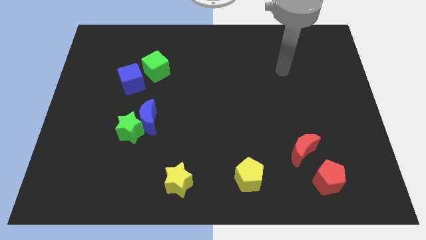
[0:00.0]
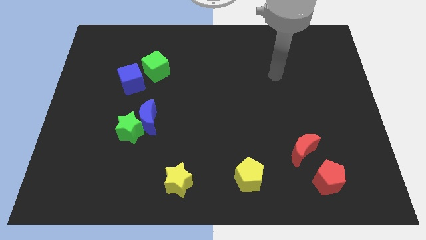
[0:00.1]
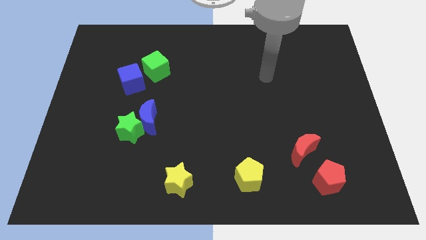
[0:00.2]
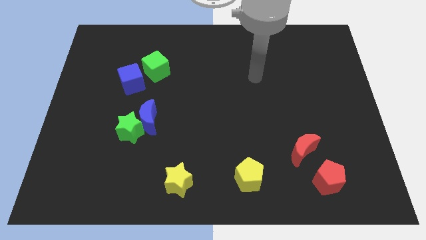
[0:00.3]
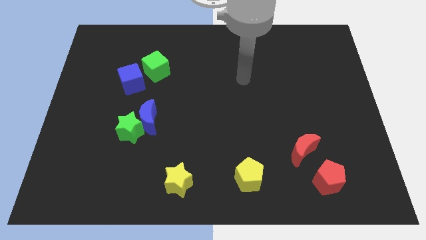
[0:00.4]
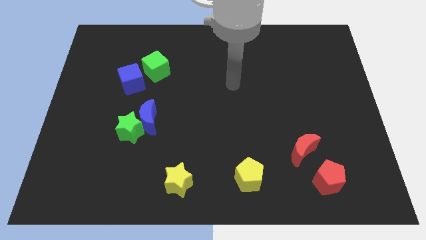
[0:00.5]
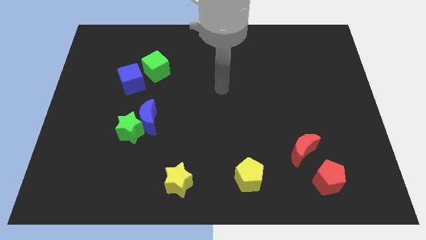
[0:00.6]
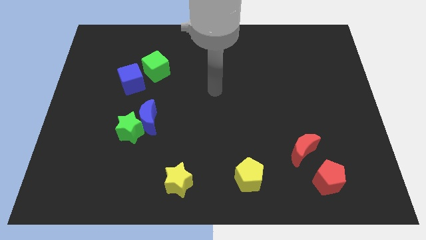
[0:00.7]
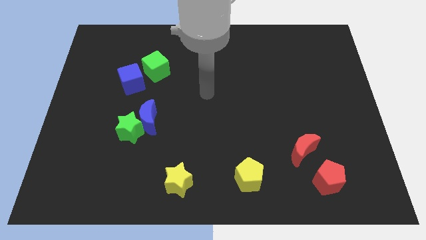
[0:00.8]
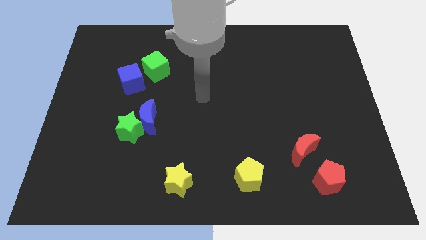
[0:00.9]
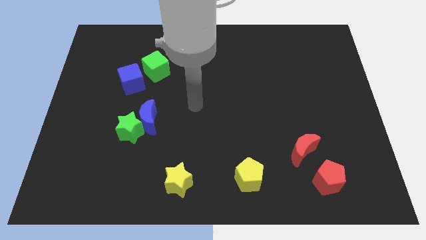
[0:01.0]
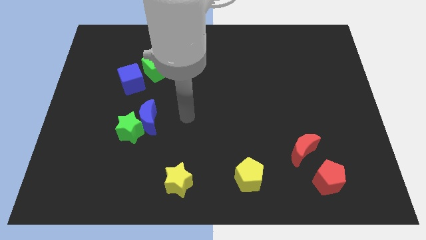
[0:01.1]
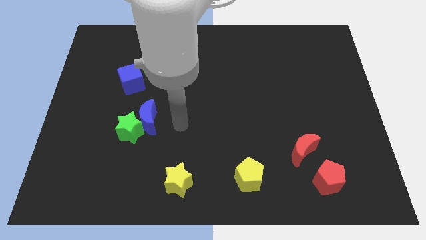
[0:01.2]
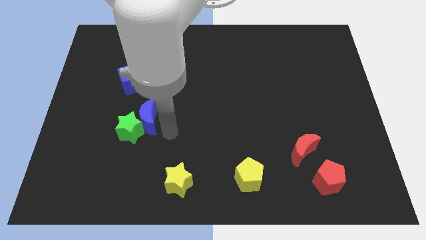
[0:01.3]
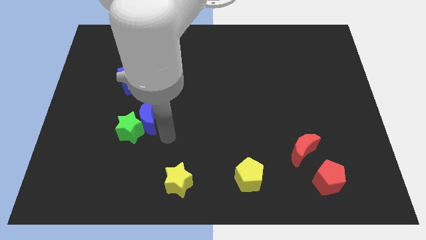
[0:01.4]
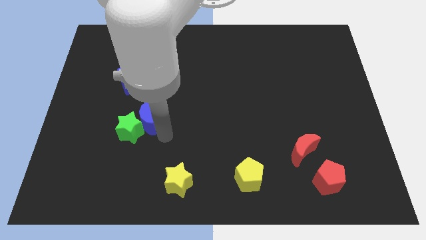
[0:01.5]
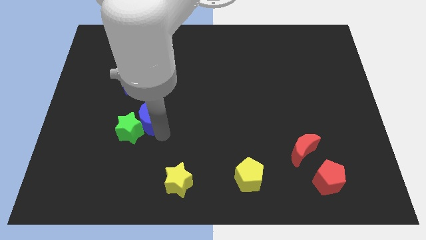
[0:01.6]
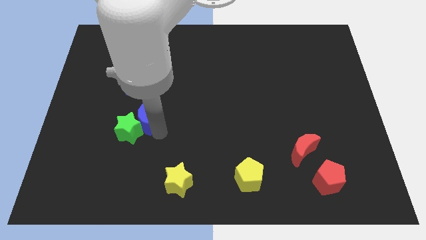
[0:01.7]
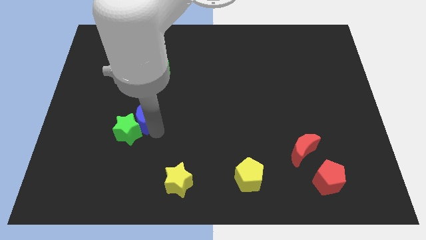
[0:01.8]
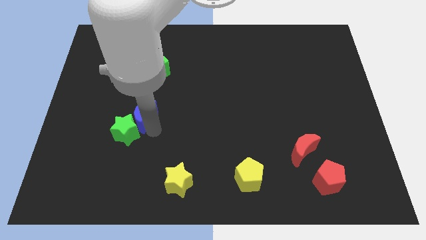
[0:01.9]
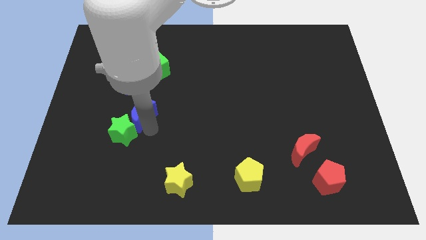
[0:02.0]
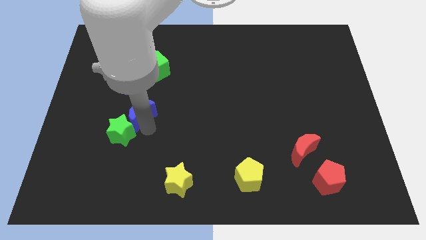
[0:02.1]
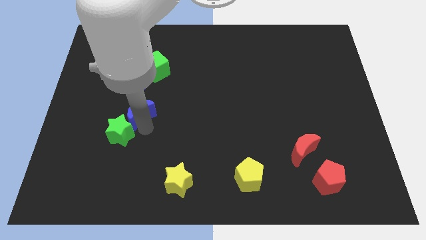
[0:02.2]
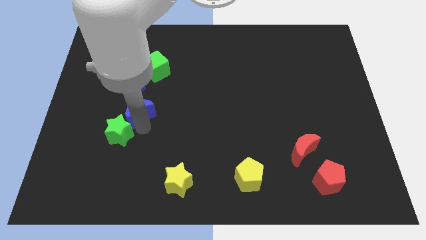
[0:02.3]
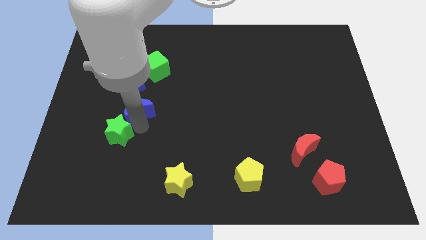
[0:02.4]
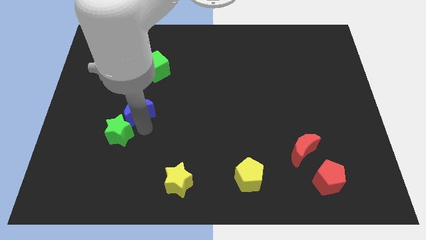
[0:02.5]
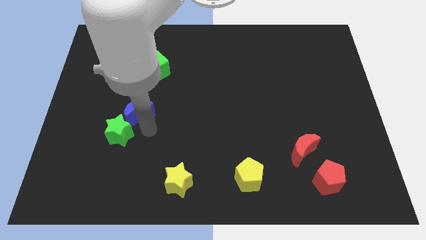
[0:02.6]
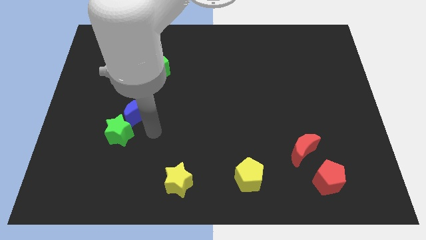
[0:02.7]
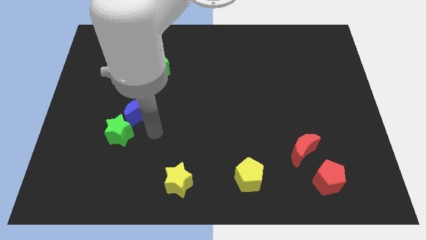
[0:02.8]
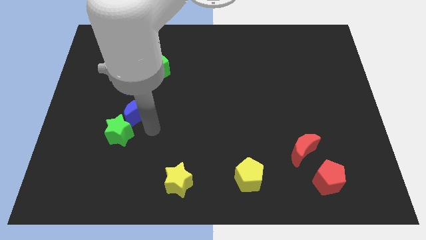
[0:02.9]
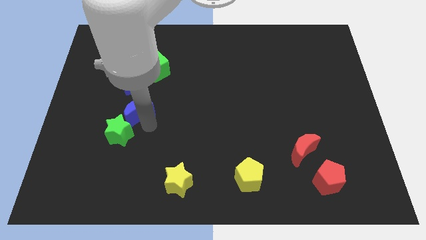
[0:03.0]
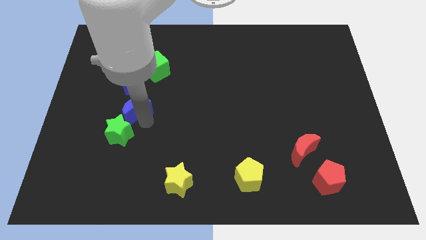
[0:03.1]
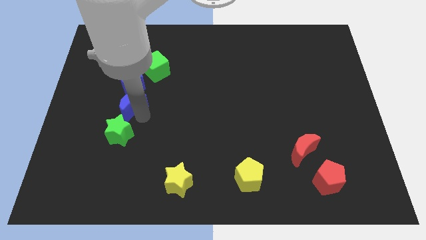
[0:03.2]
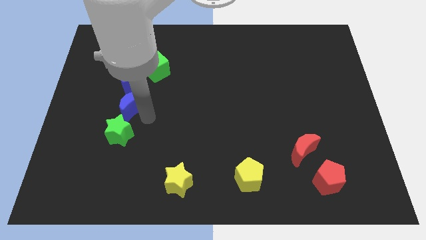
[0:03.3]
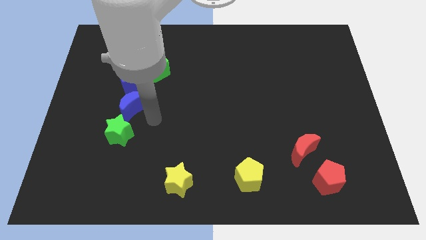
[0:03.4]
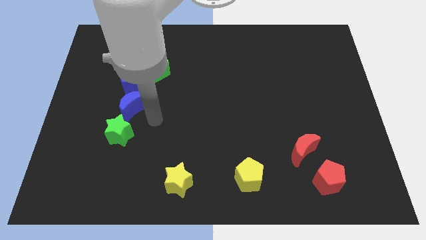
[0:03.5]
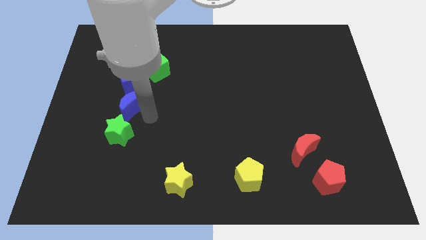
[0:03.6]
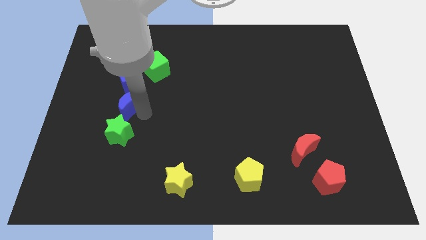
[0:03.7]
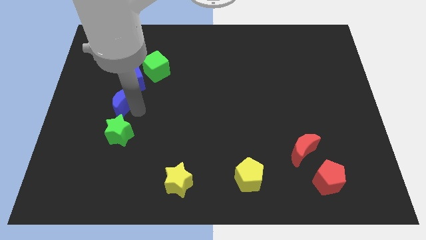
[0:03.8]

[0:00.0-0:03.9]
push the blue moon somewhat up and to the left diagonally

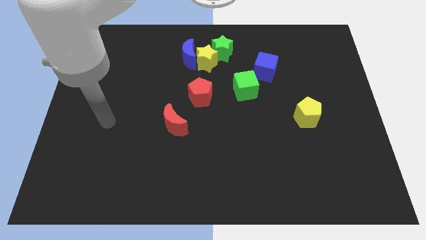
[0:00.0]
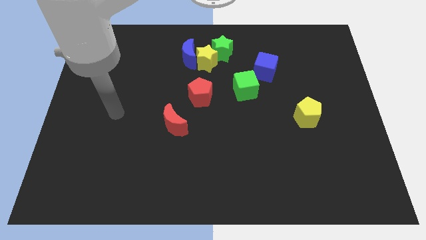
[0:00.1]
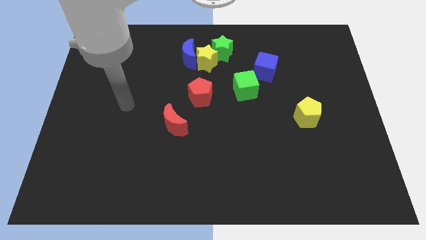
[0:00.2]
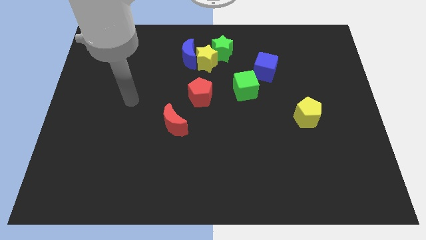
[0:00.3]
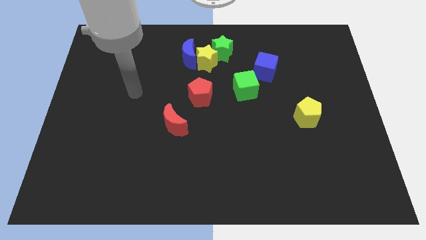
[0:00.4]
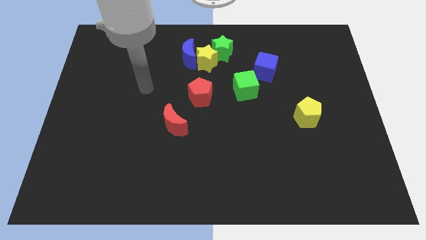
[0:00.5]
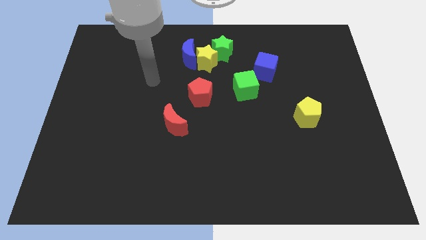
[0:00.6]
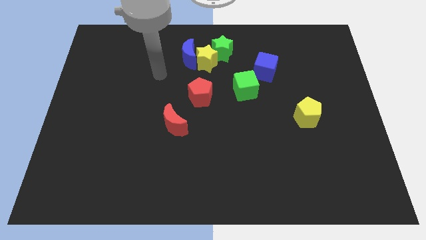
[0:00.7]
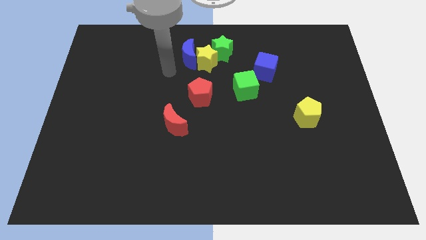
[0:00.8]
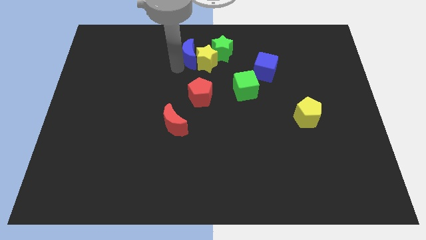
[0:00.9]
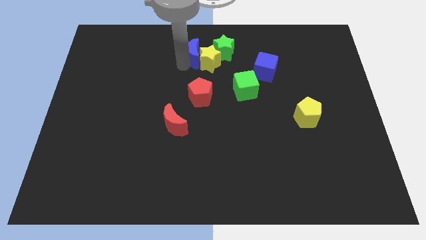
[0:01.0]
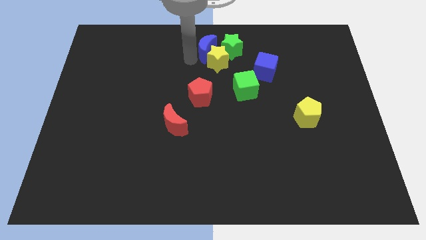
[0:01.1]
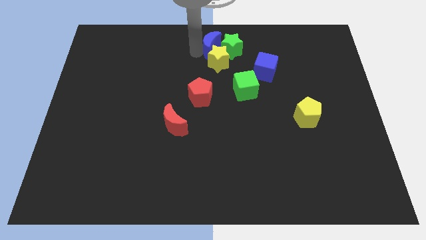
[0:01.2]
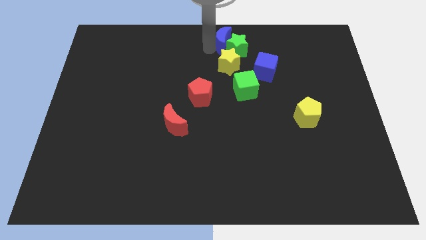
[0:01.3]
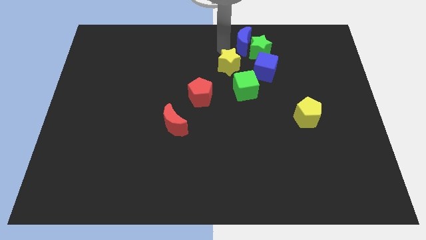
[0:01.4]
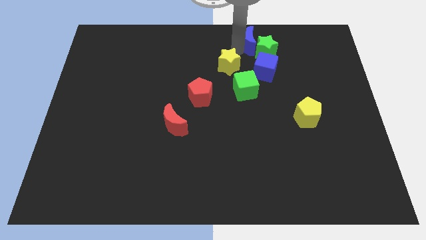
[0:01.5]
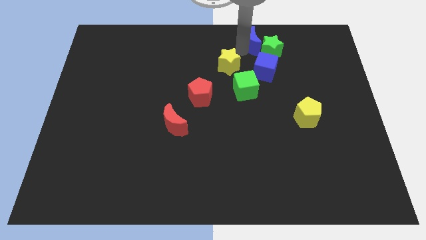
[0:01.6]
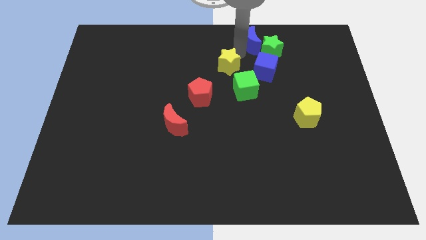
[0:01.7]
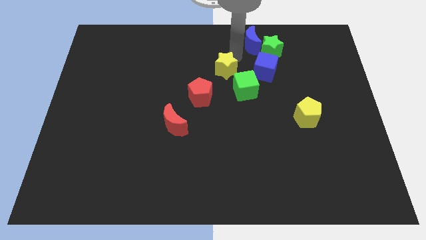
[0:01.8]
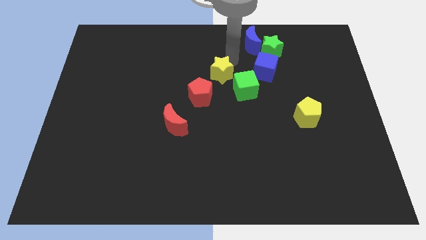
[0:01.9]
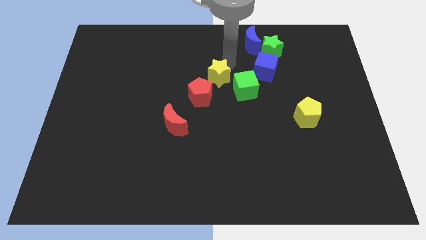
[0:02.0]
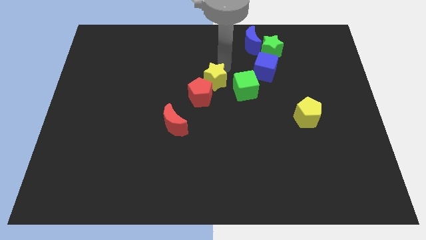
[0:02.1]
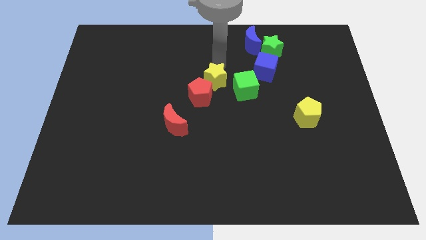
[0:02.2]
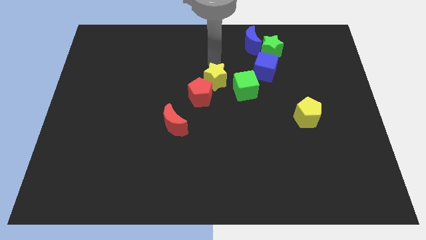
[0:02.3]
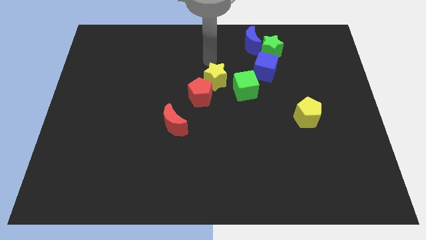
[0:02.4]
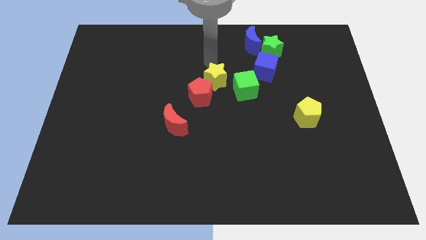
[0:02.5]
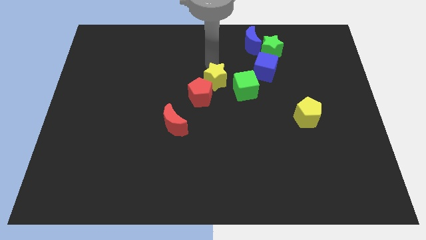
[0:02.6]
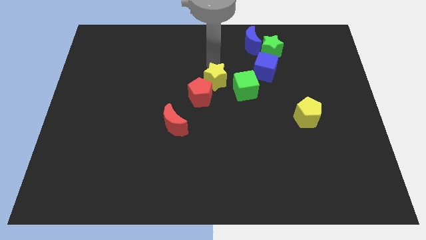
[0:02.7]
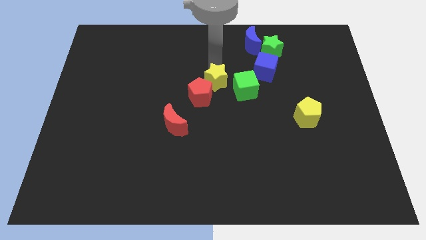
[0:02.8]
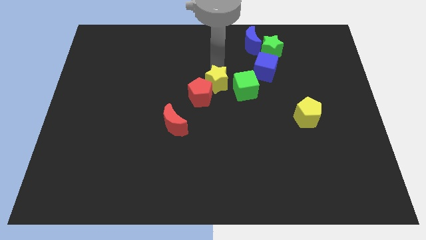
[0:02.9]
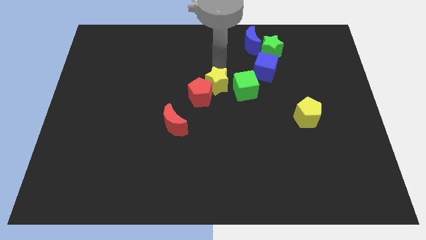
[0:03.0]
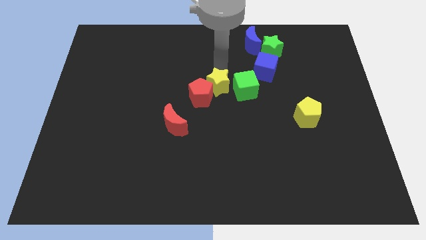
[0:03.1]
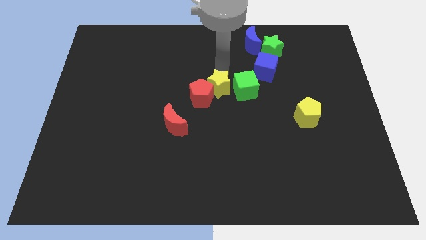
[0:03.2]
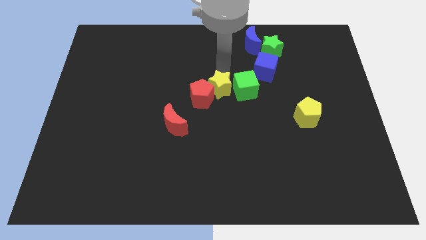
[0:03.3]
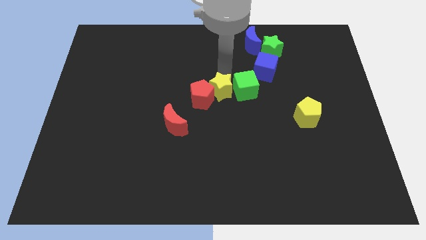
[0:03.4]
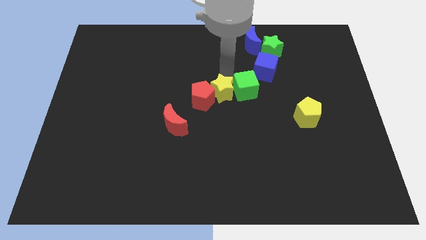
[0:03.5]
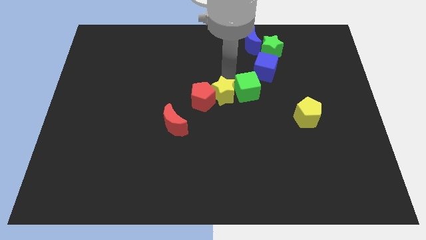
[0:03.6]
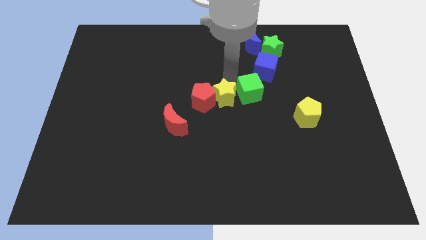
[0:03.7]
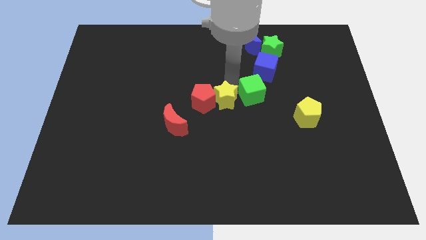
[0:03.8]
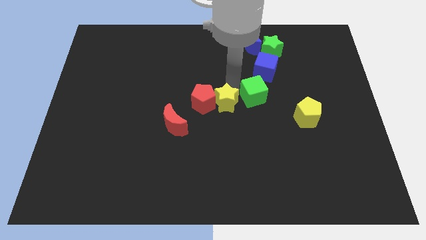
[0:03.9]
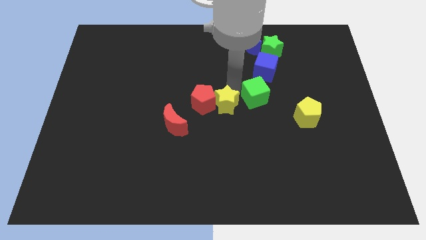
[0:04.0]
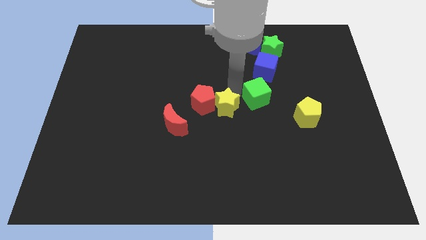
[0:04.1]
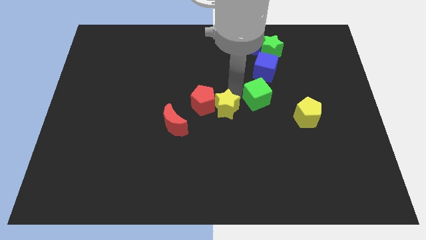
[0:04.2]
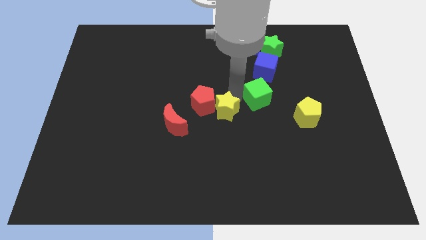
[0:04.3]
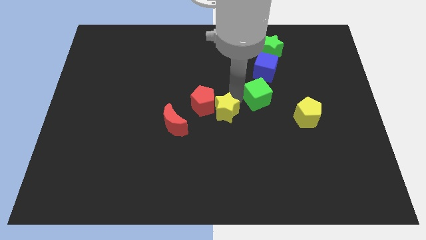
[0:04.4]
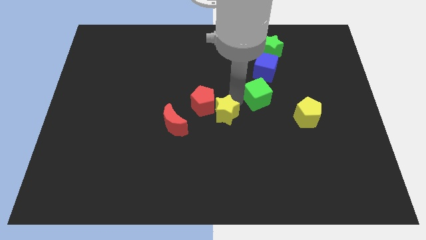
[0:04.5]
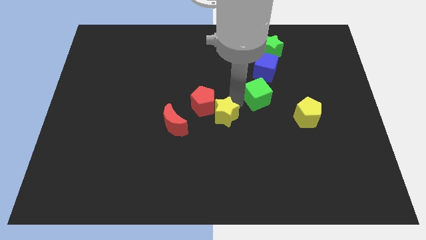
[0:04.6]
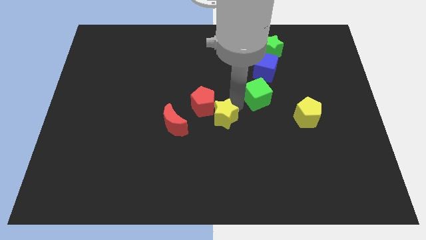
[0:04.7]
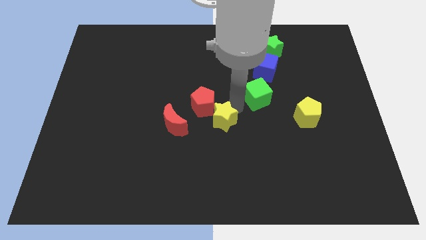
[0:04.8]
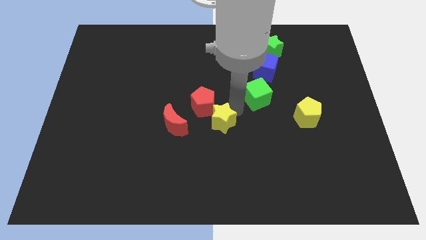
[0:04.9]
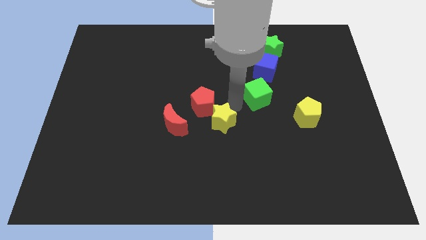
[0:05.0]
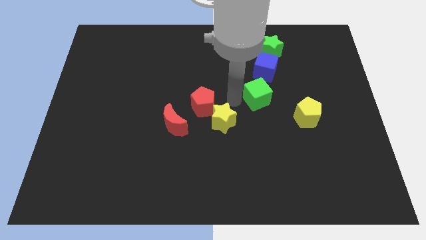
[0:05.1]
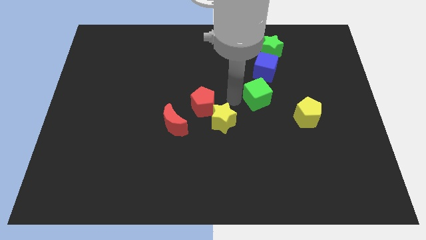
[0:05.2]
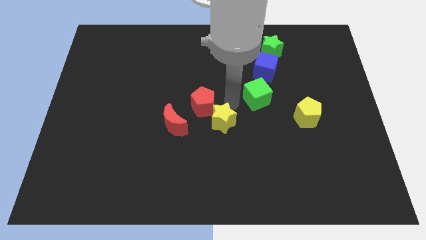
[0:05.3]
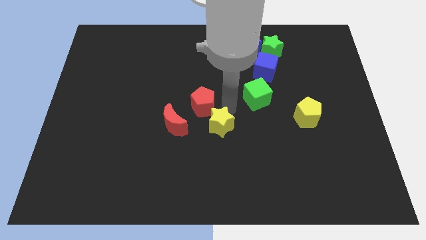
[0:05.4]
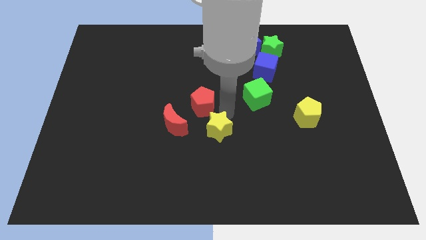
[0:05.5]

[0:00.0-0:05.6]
slide the yellow star downwards
